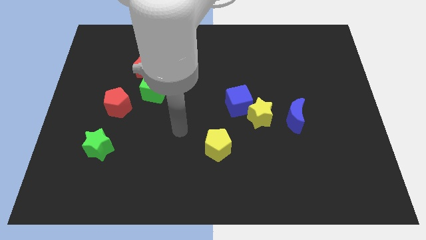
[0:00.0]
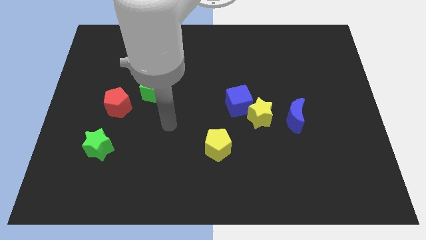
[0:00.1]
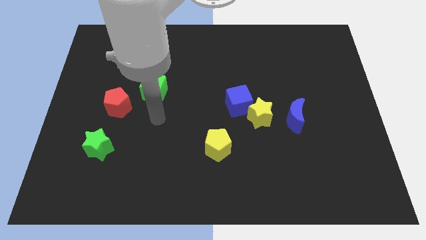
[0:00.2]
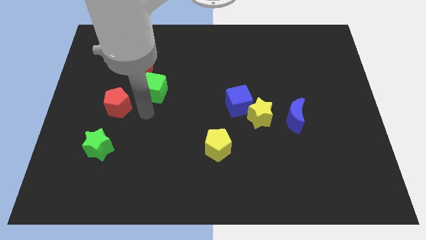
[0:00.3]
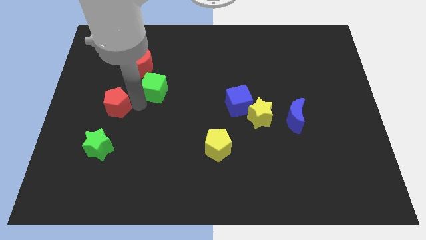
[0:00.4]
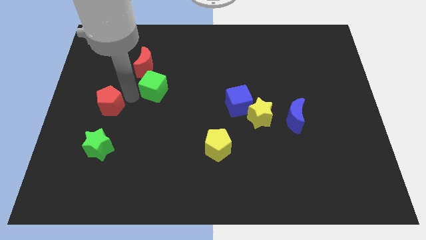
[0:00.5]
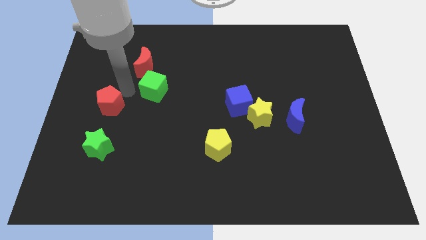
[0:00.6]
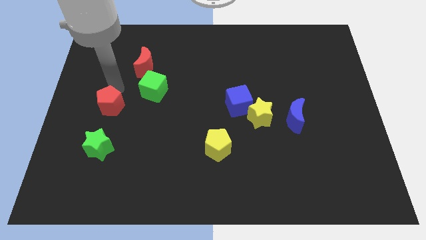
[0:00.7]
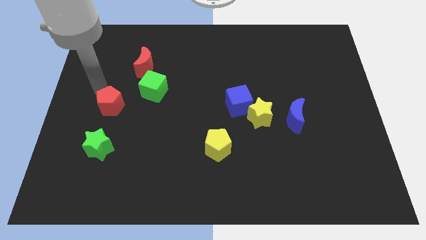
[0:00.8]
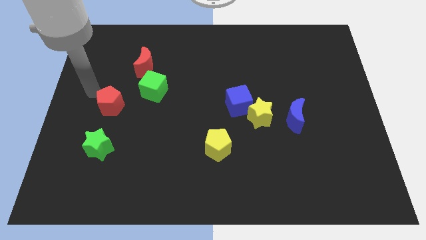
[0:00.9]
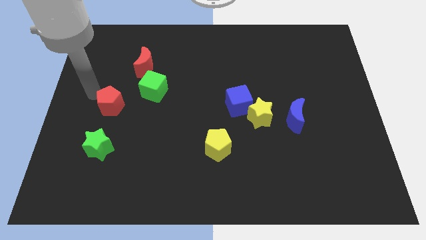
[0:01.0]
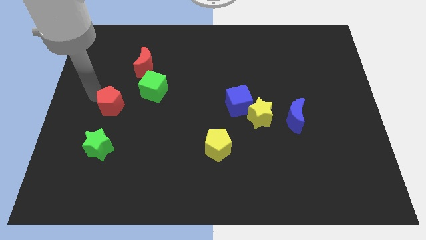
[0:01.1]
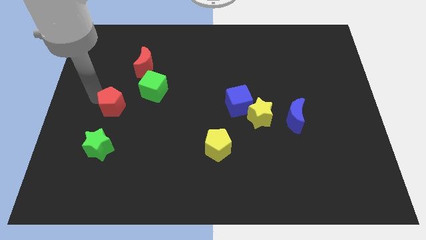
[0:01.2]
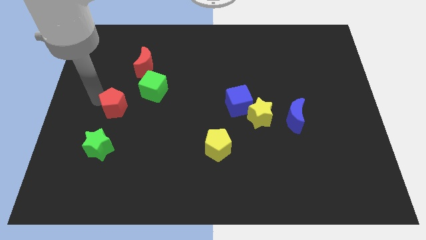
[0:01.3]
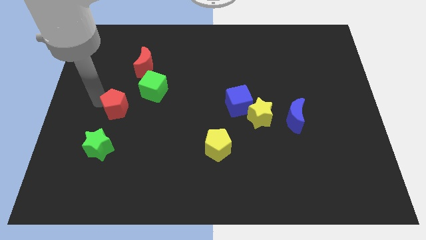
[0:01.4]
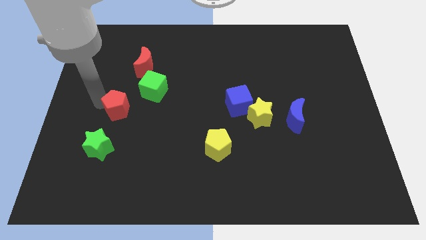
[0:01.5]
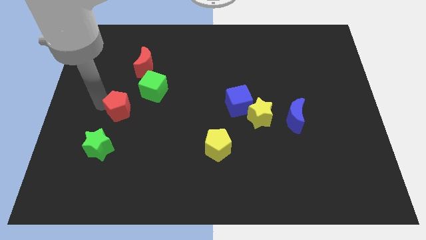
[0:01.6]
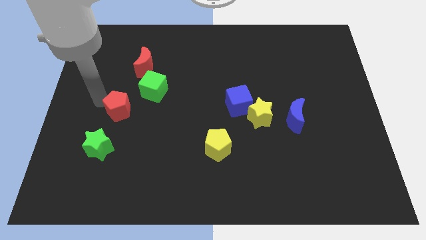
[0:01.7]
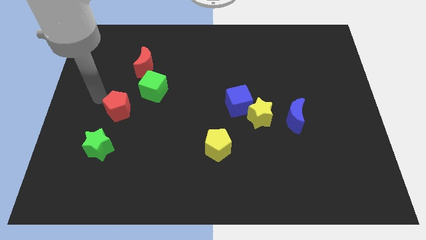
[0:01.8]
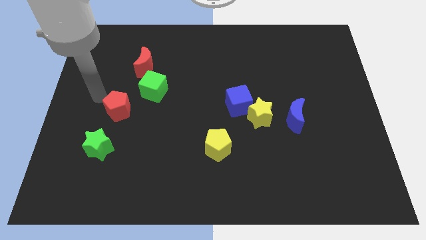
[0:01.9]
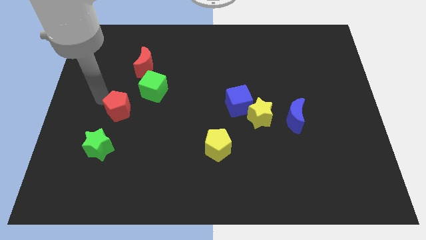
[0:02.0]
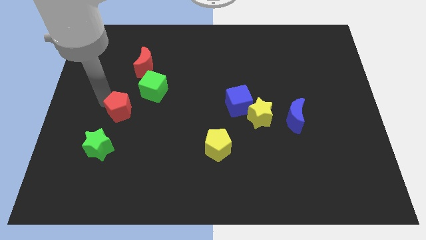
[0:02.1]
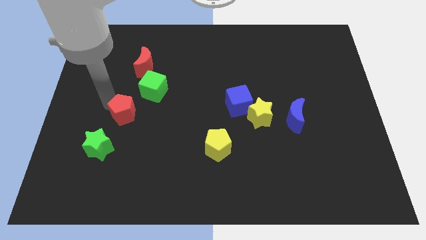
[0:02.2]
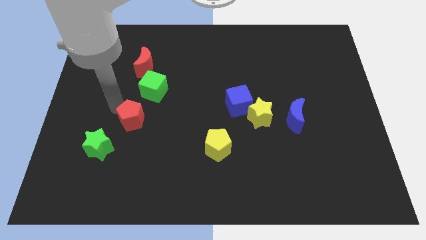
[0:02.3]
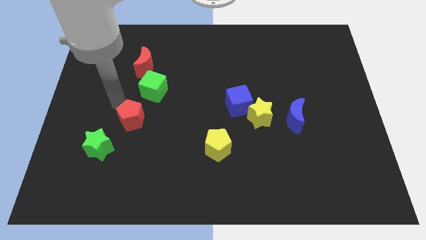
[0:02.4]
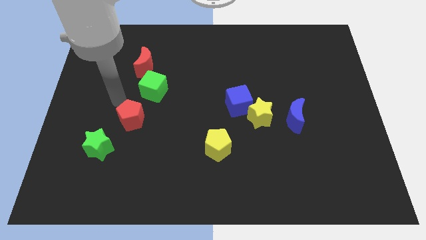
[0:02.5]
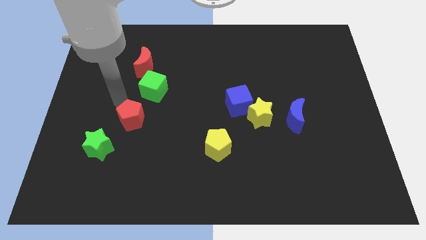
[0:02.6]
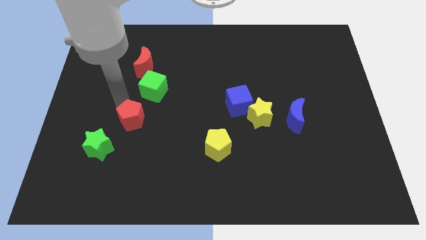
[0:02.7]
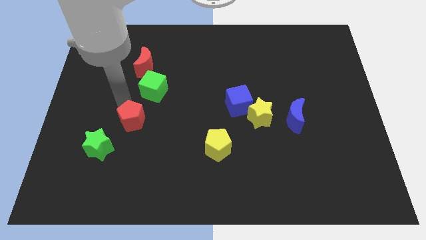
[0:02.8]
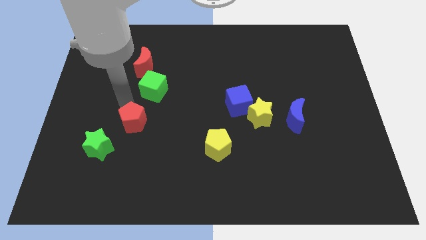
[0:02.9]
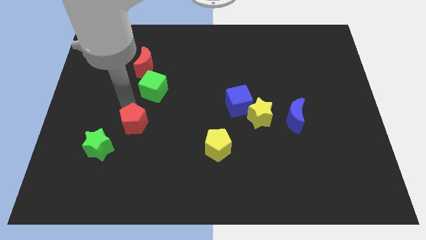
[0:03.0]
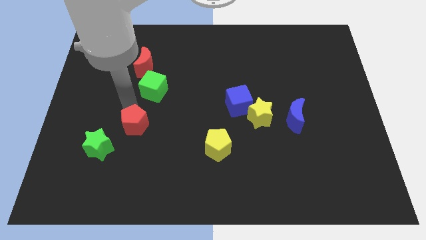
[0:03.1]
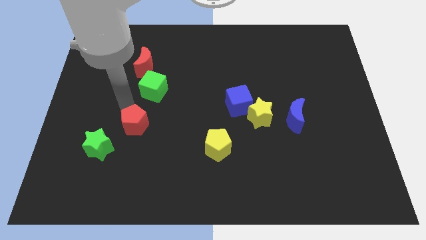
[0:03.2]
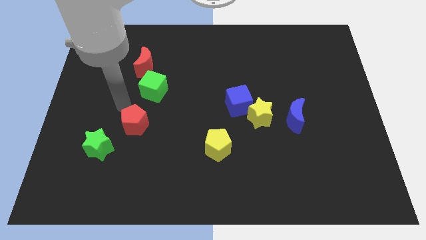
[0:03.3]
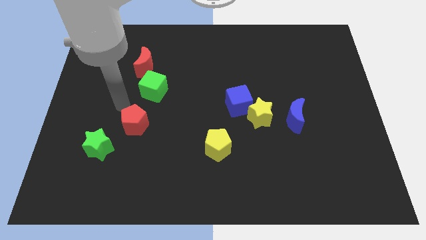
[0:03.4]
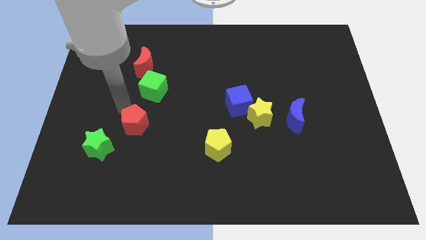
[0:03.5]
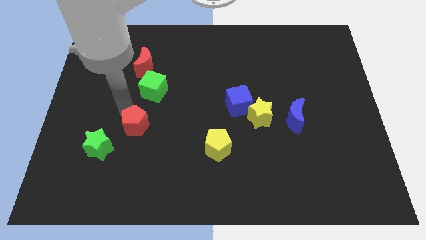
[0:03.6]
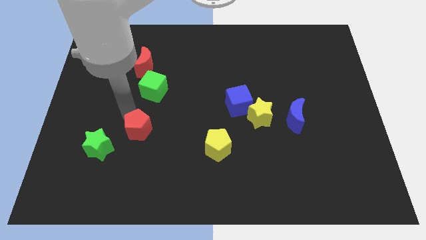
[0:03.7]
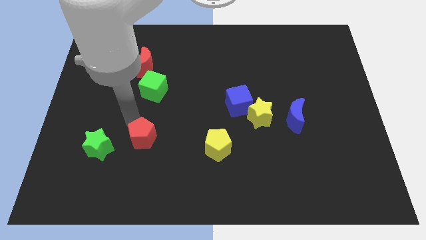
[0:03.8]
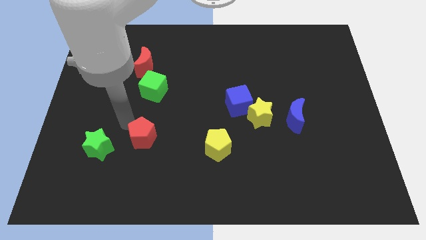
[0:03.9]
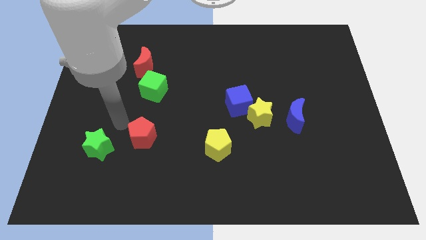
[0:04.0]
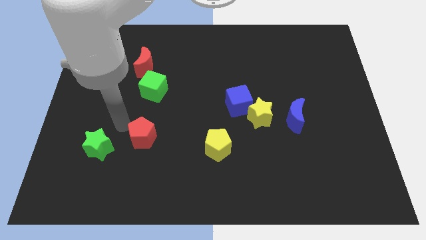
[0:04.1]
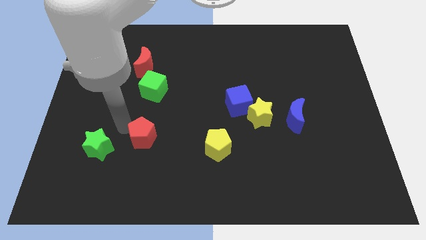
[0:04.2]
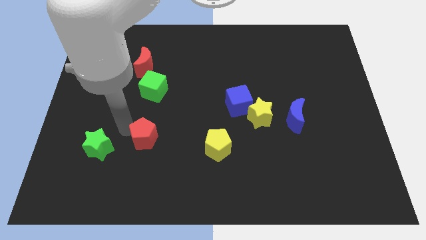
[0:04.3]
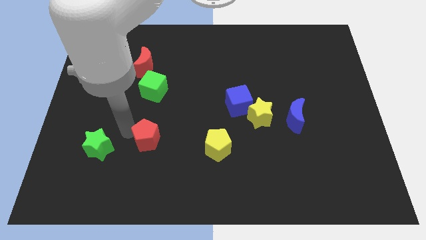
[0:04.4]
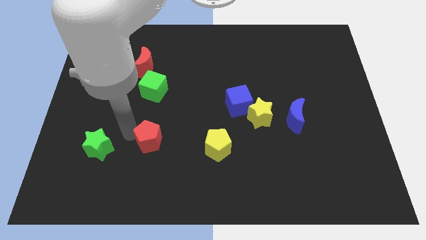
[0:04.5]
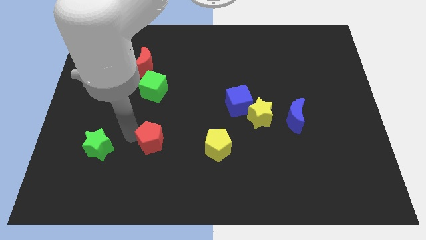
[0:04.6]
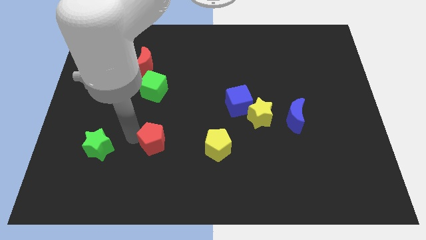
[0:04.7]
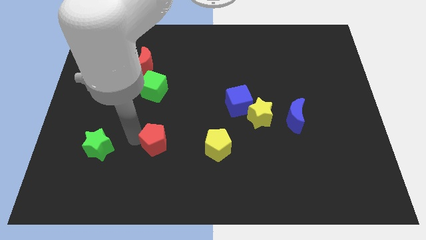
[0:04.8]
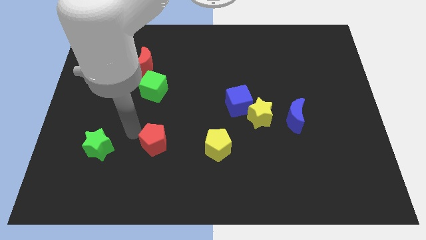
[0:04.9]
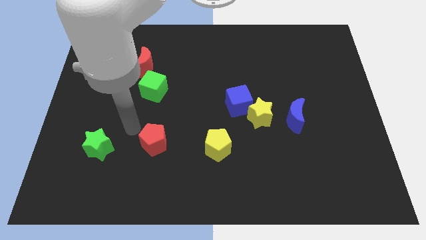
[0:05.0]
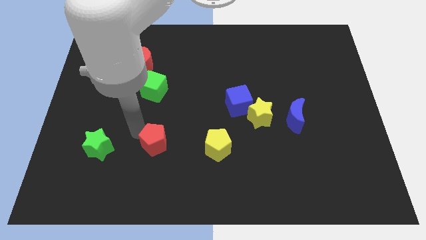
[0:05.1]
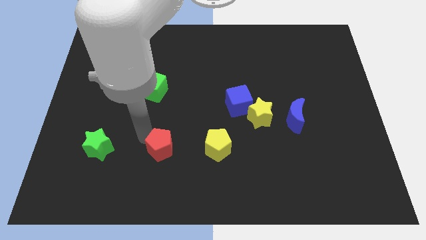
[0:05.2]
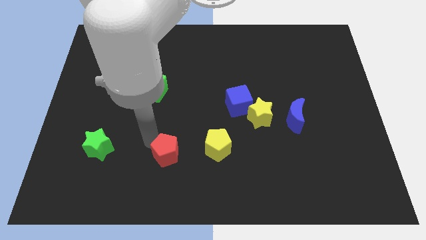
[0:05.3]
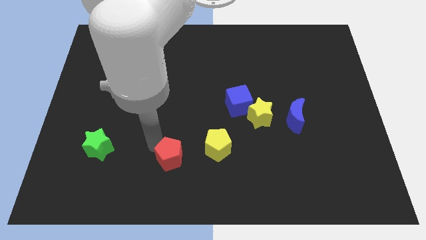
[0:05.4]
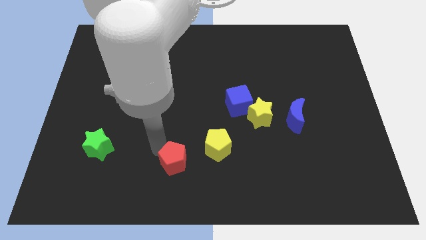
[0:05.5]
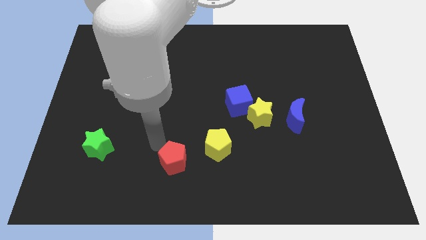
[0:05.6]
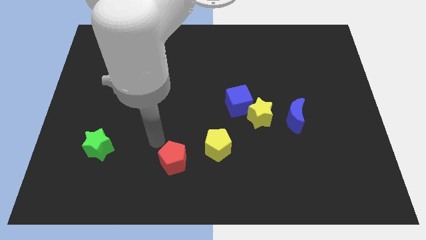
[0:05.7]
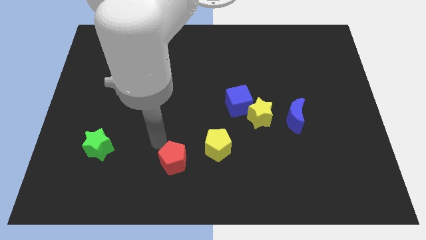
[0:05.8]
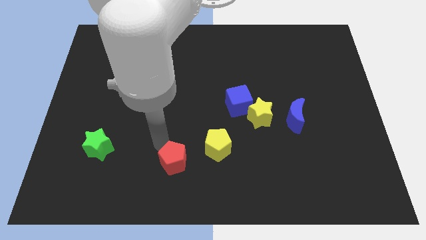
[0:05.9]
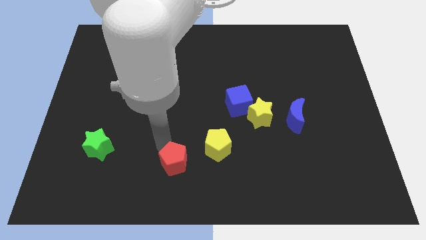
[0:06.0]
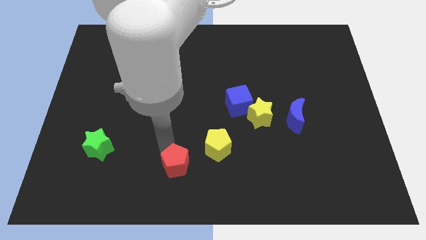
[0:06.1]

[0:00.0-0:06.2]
push the red pentagon to the bottom
